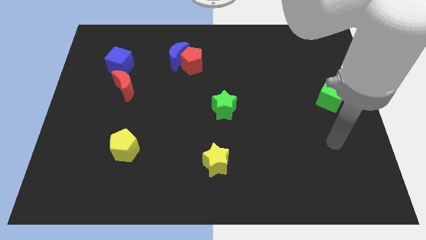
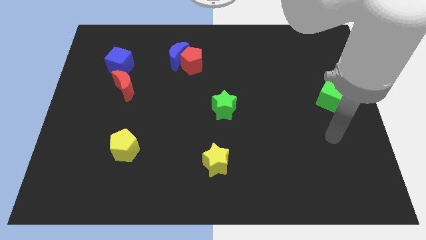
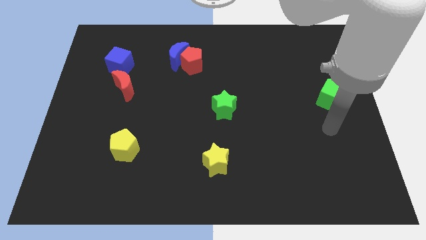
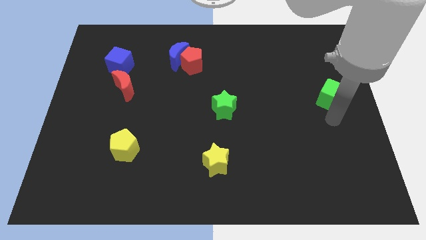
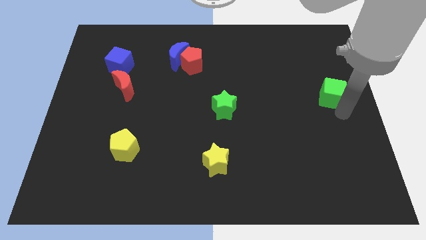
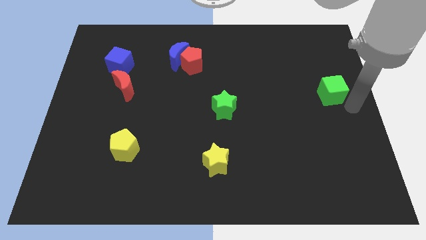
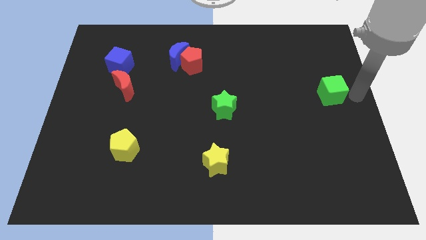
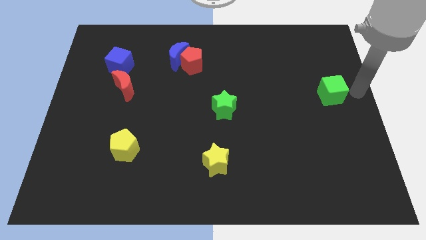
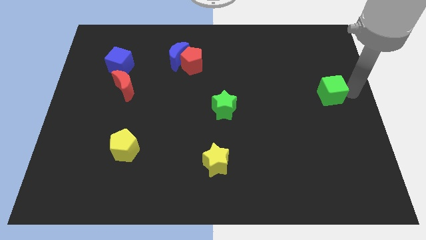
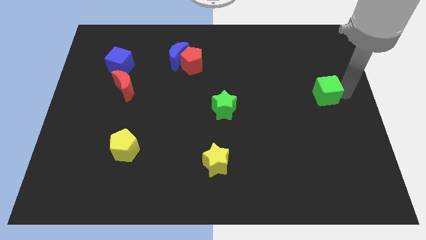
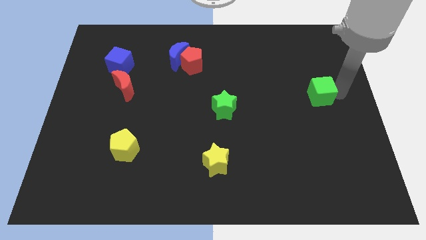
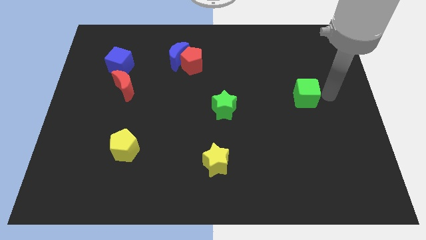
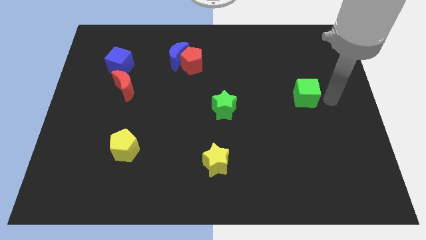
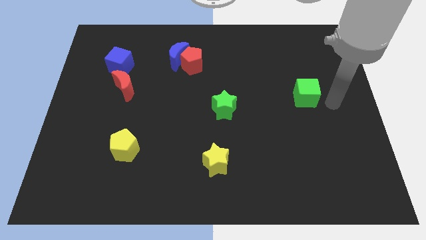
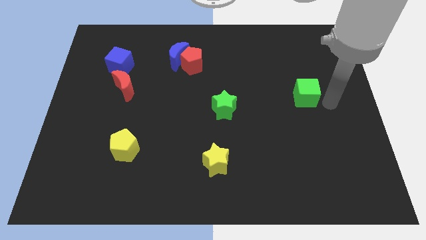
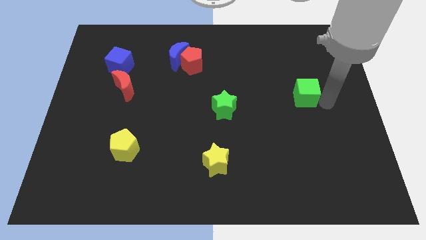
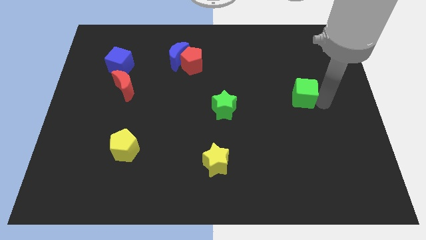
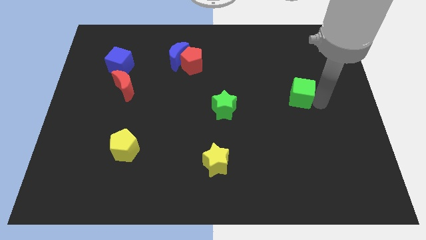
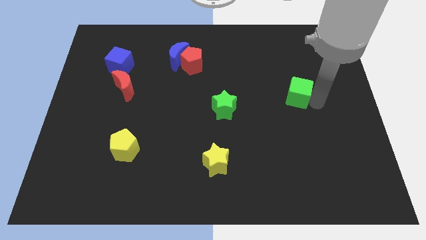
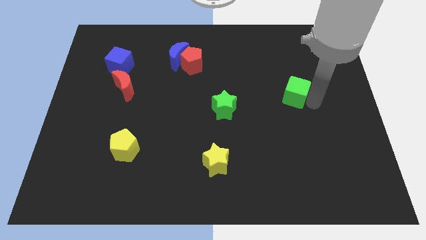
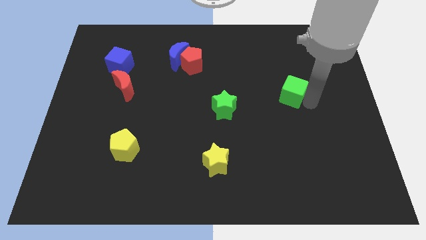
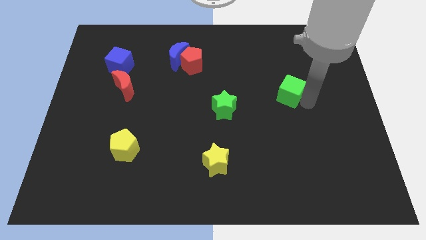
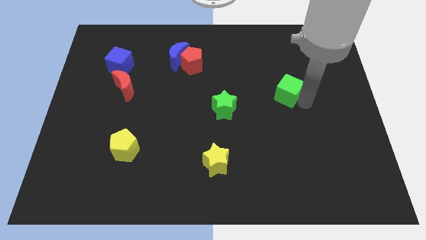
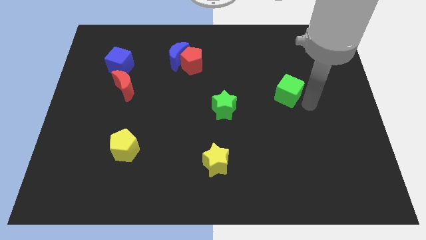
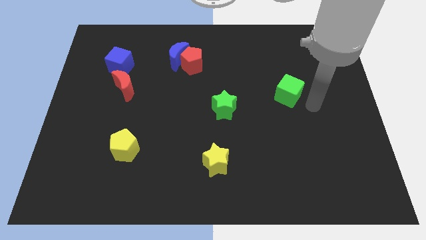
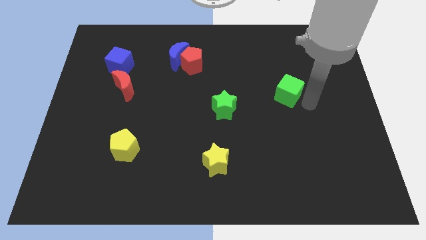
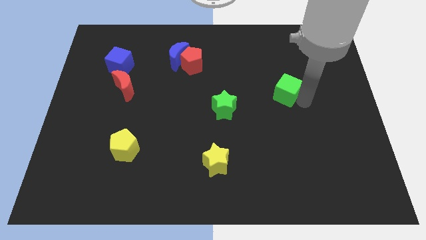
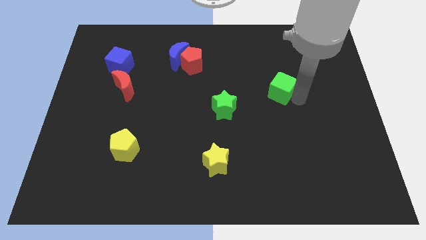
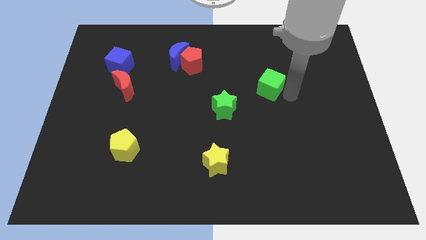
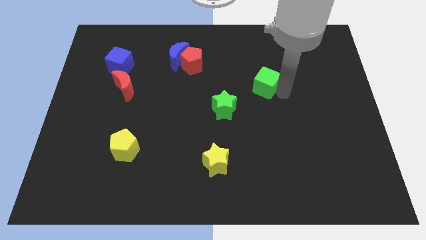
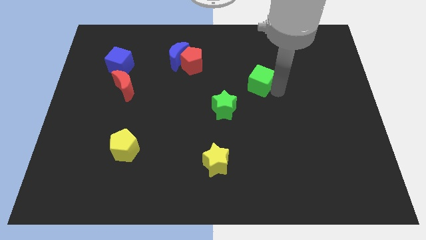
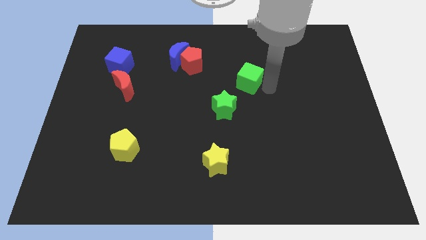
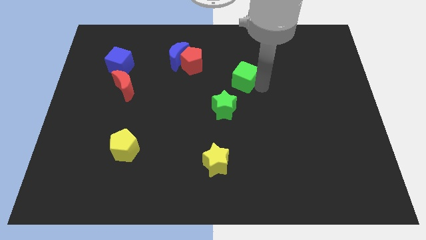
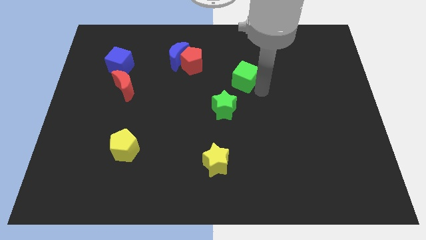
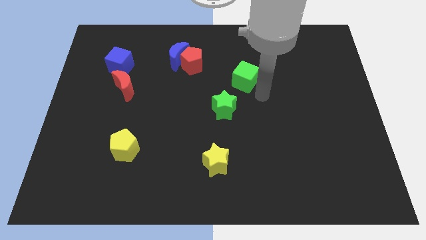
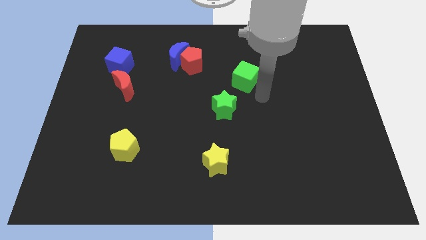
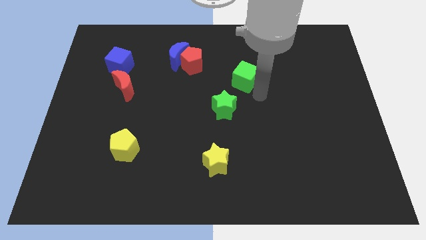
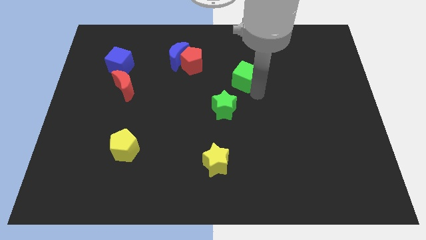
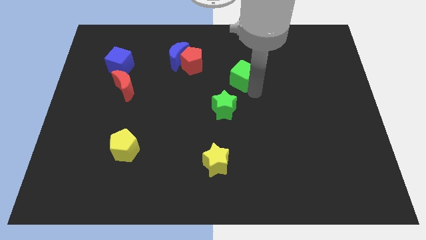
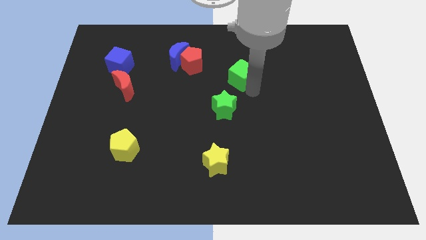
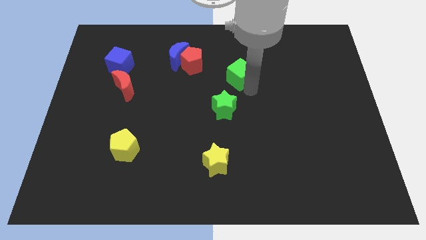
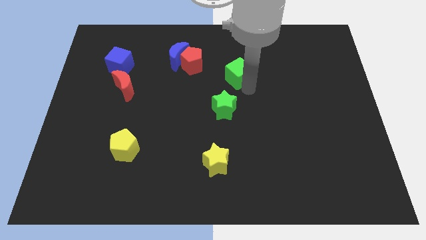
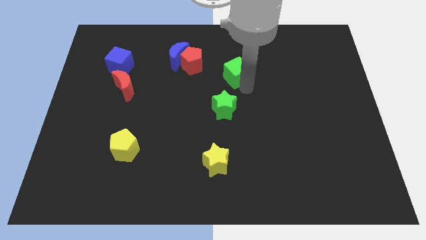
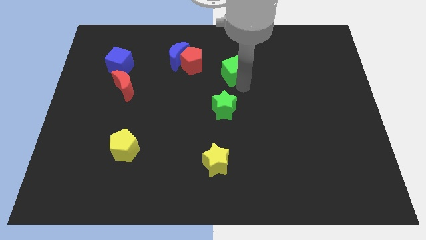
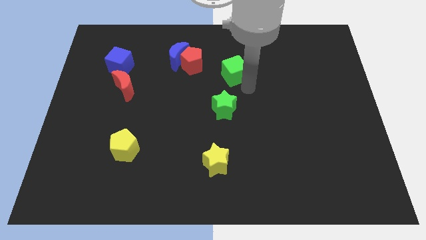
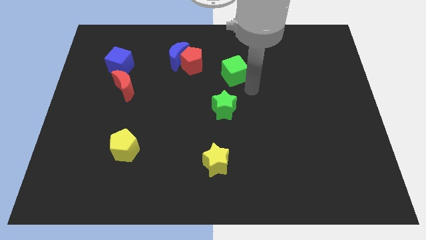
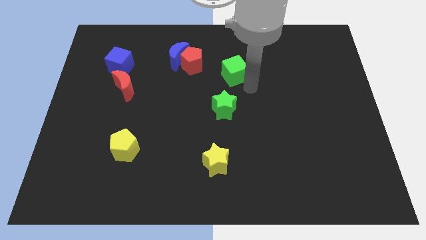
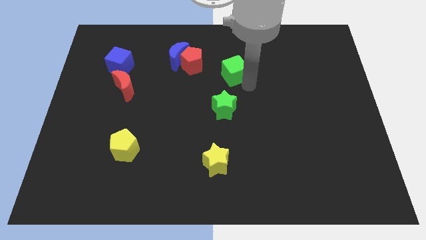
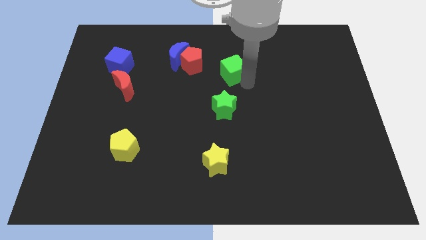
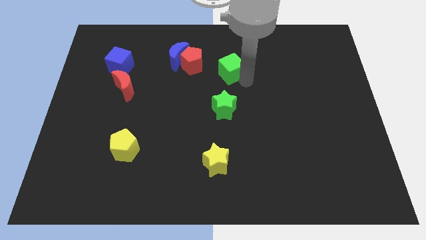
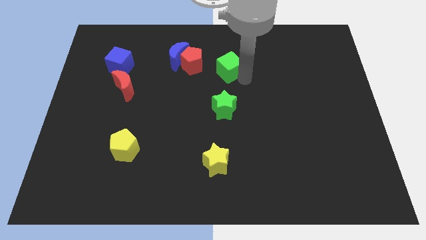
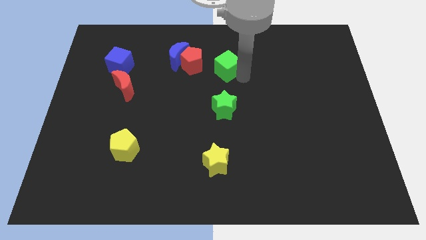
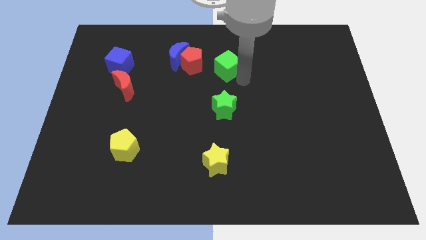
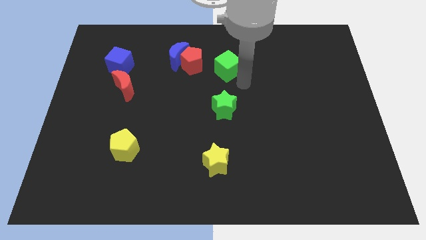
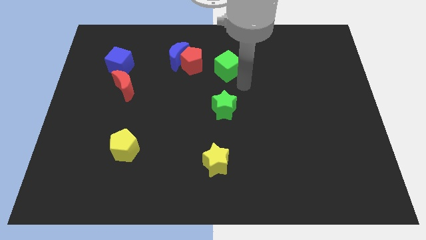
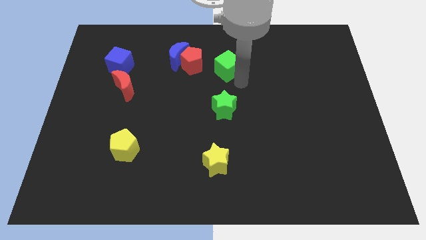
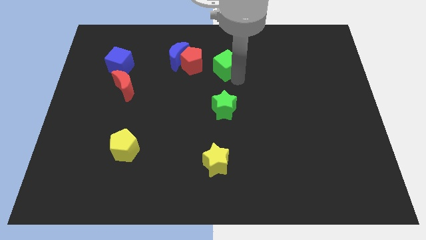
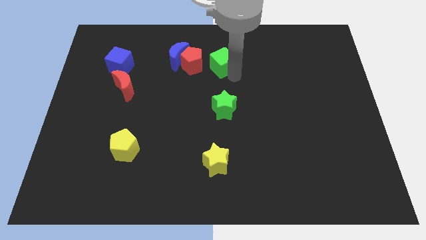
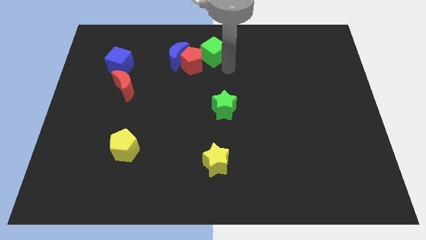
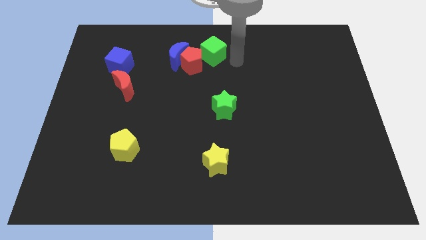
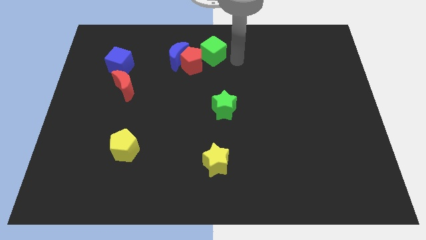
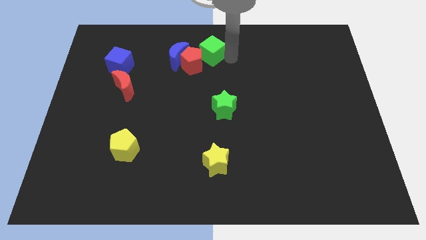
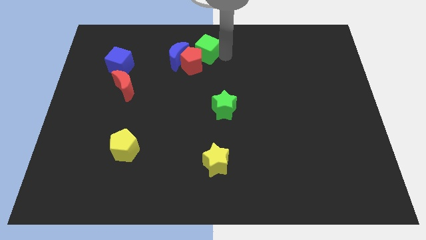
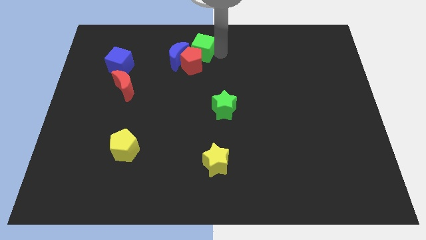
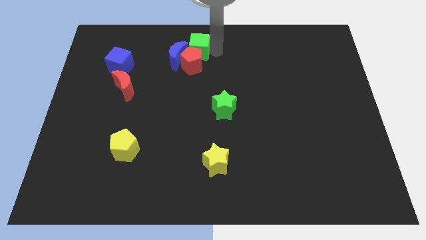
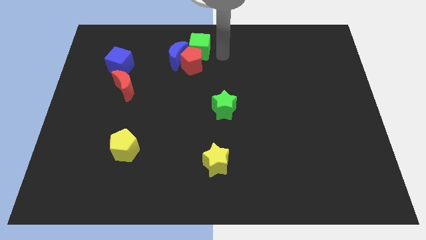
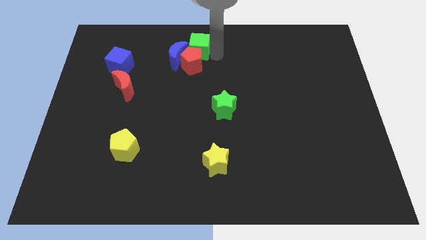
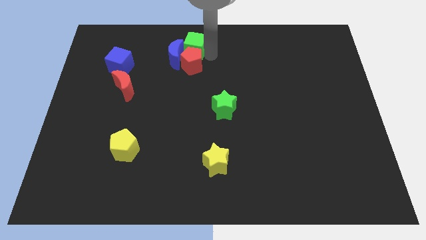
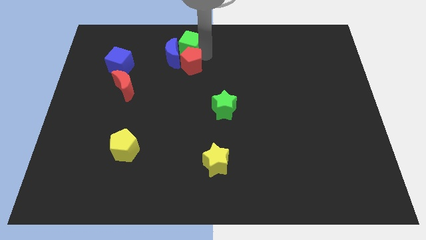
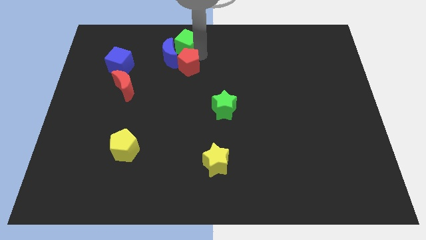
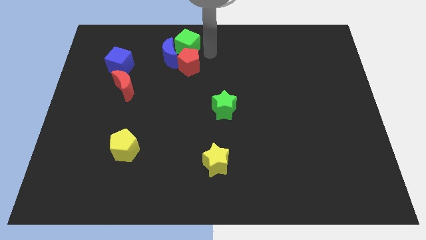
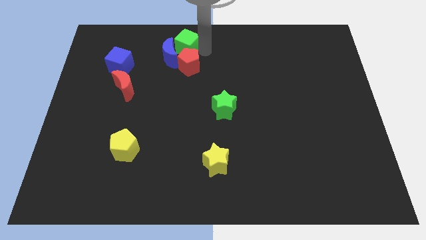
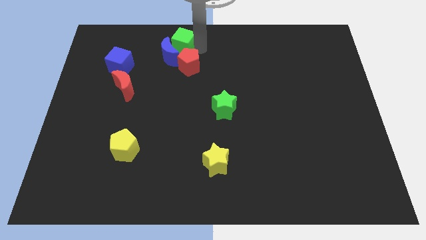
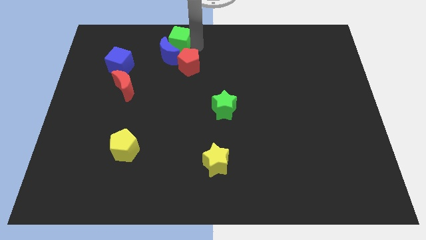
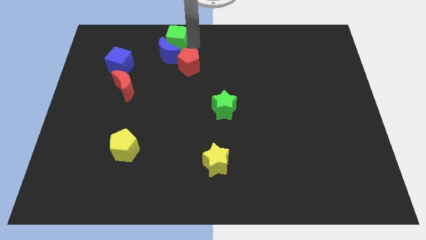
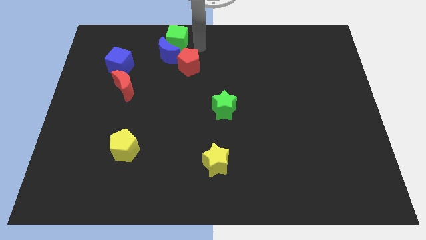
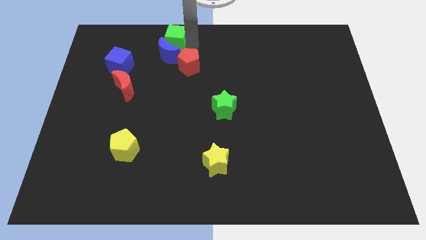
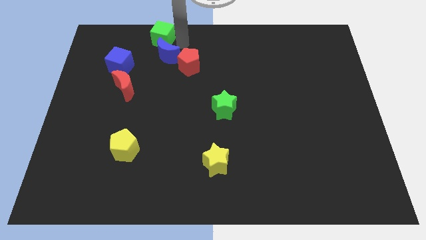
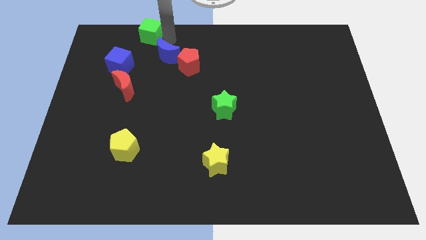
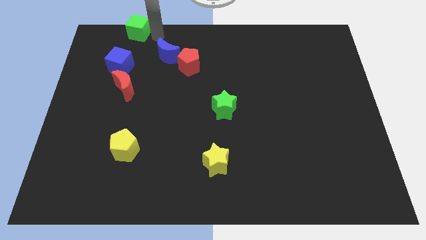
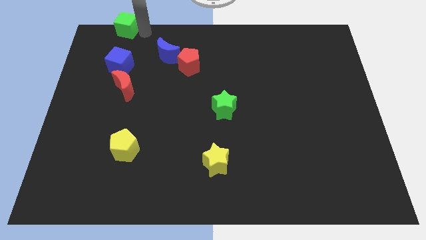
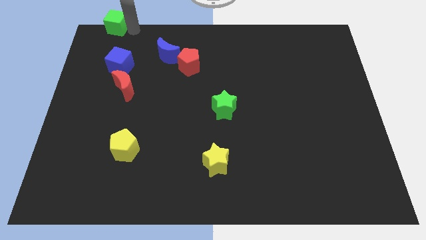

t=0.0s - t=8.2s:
slide the green cube to the upper left corner
